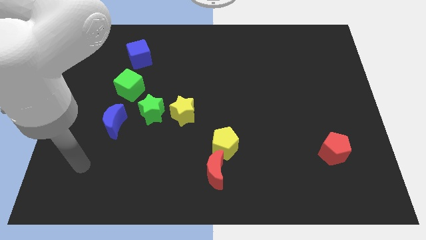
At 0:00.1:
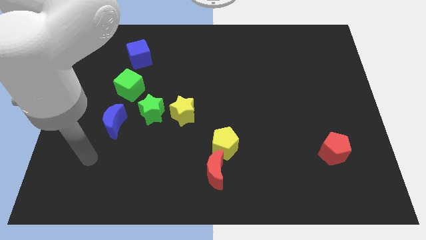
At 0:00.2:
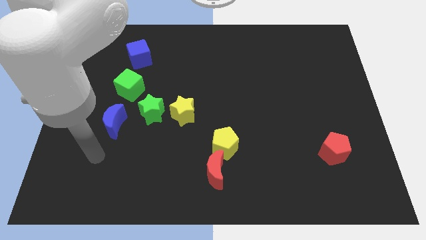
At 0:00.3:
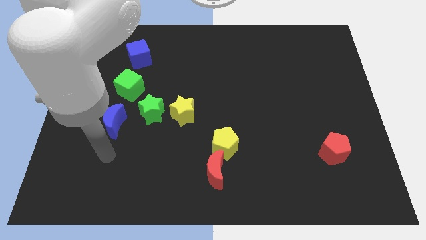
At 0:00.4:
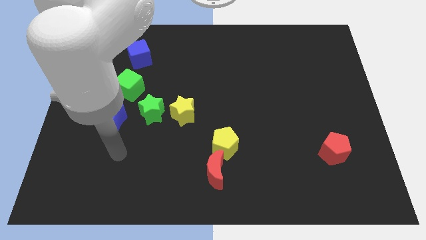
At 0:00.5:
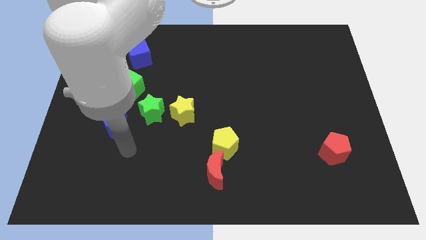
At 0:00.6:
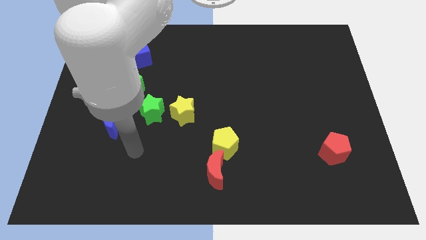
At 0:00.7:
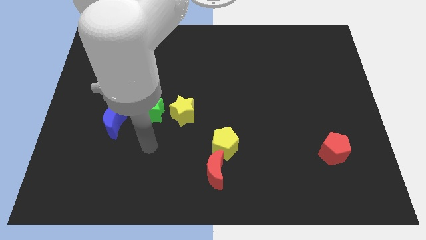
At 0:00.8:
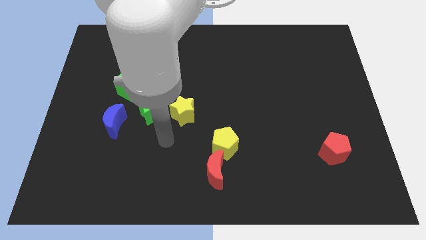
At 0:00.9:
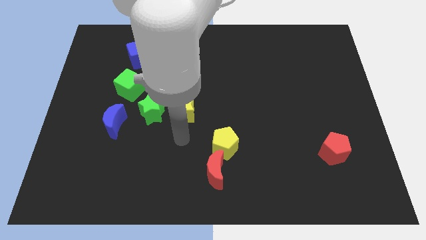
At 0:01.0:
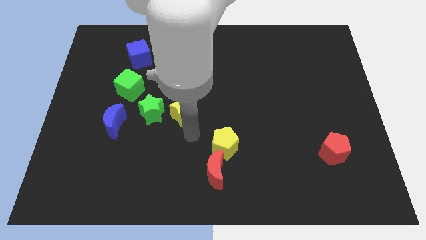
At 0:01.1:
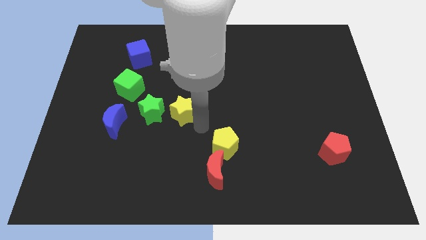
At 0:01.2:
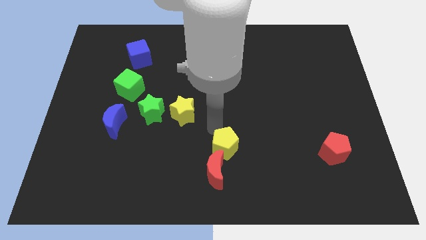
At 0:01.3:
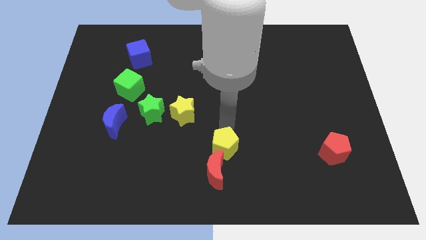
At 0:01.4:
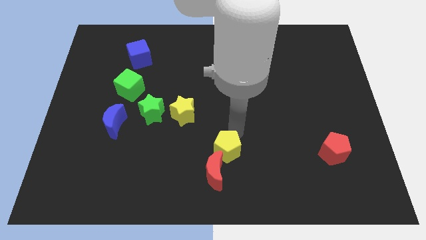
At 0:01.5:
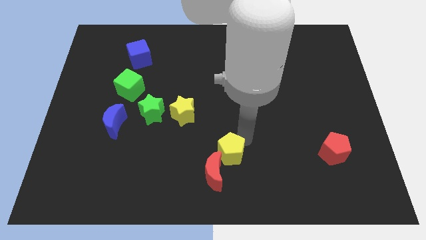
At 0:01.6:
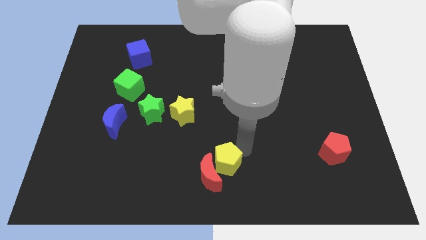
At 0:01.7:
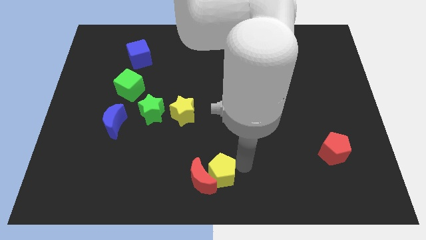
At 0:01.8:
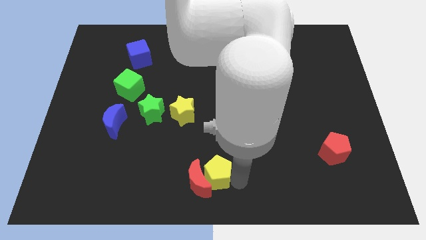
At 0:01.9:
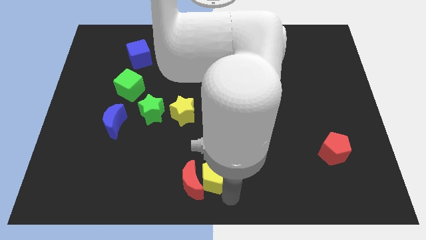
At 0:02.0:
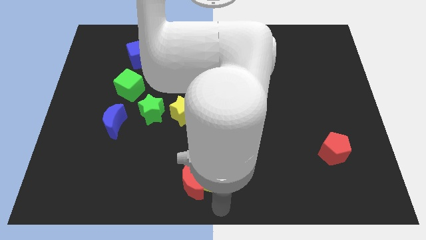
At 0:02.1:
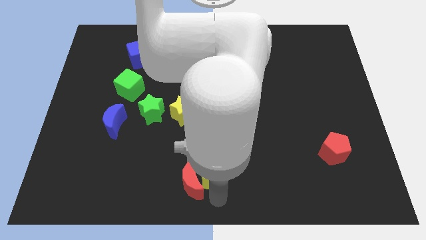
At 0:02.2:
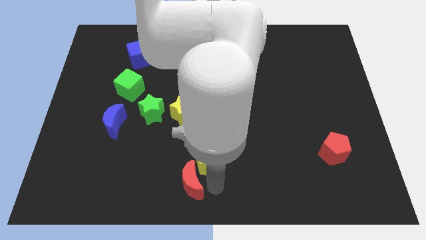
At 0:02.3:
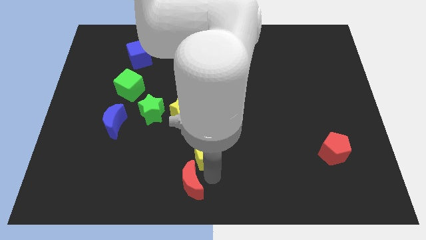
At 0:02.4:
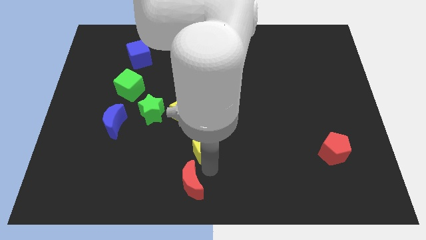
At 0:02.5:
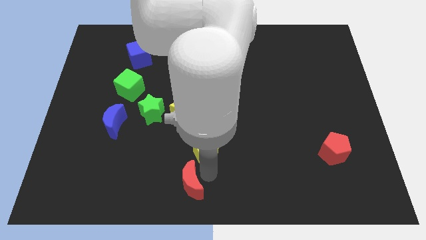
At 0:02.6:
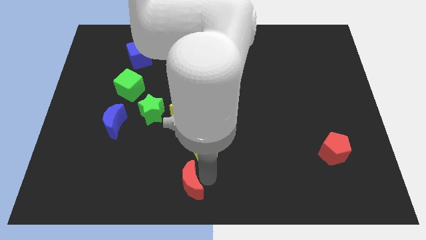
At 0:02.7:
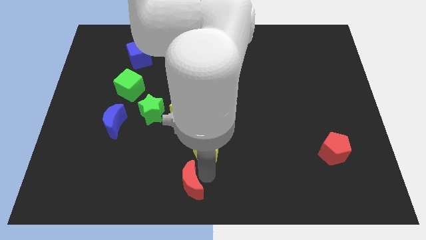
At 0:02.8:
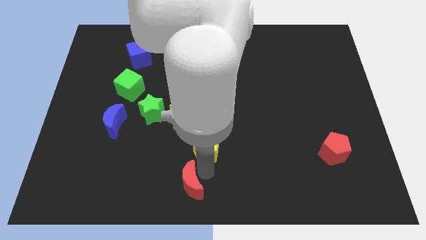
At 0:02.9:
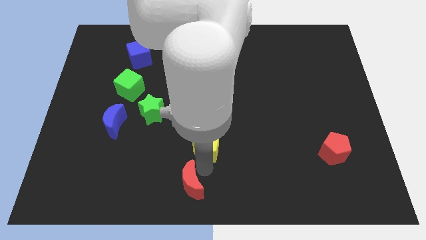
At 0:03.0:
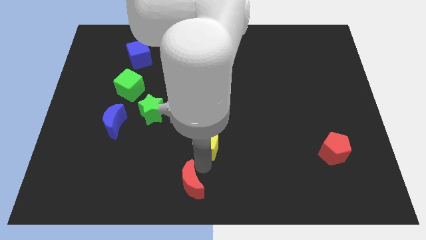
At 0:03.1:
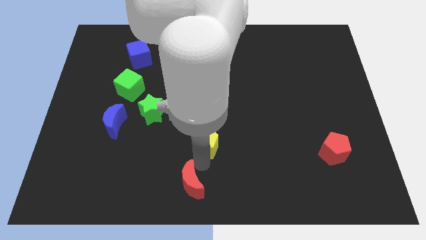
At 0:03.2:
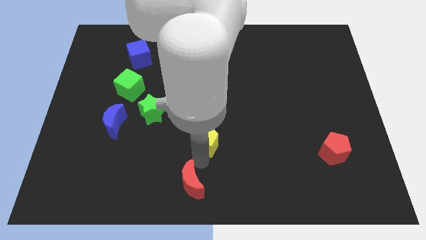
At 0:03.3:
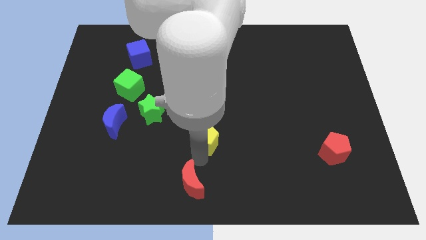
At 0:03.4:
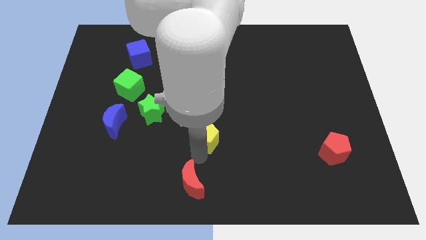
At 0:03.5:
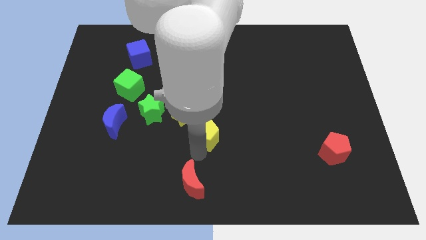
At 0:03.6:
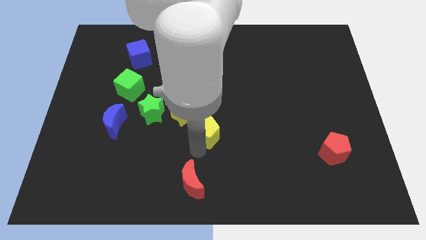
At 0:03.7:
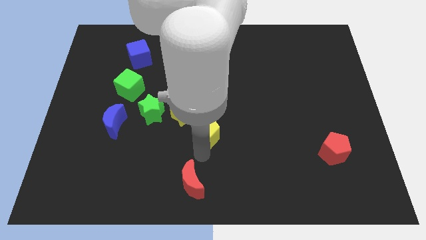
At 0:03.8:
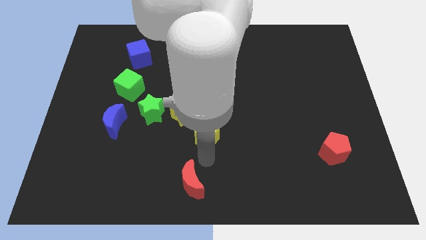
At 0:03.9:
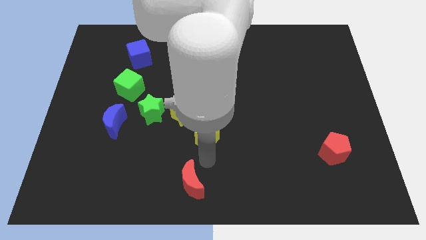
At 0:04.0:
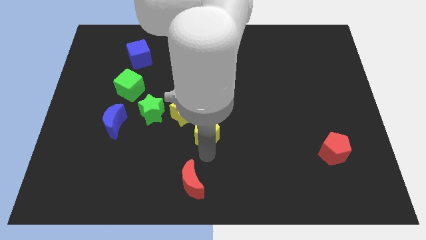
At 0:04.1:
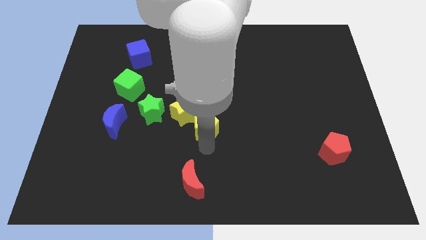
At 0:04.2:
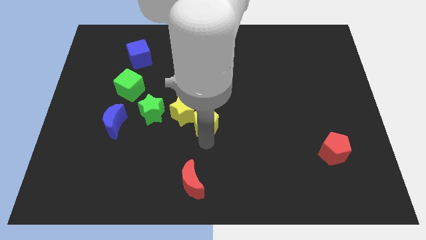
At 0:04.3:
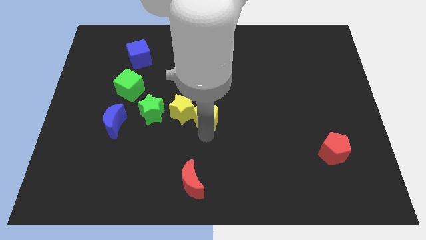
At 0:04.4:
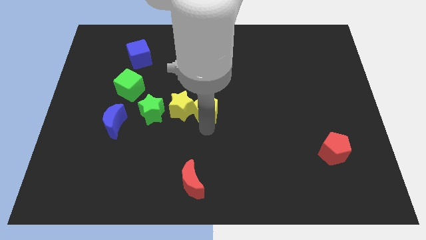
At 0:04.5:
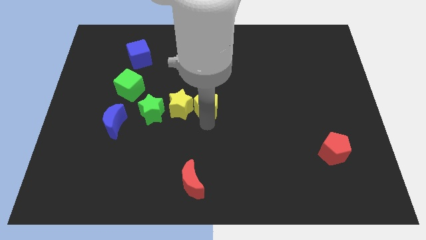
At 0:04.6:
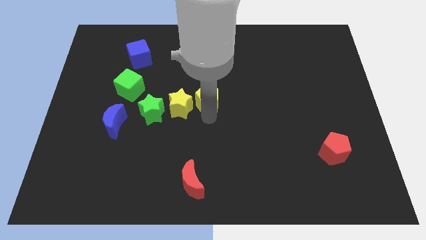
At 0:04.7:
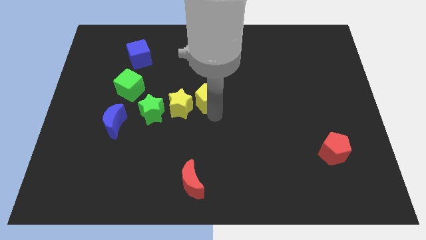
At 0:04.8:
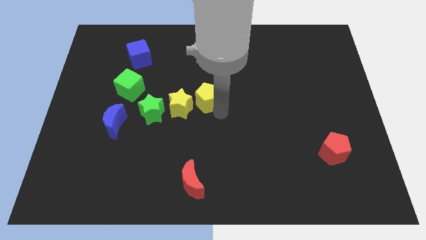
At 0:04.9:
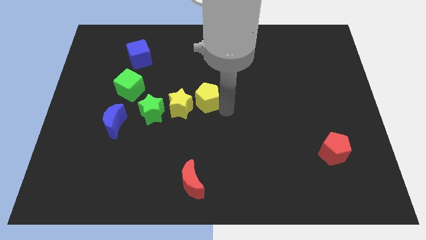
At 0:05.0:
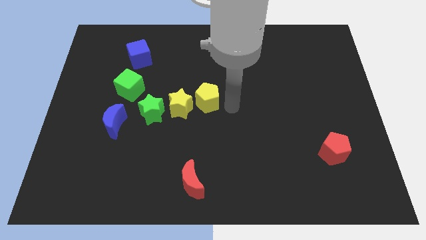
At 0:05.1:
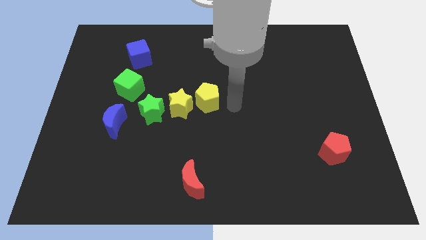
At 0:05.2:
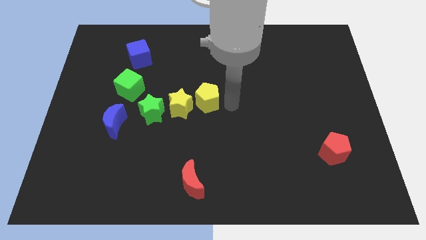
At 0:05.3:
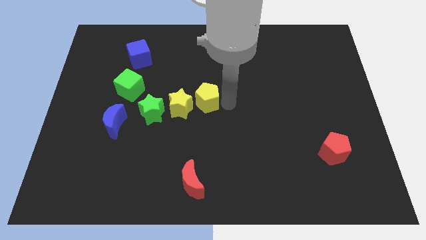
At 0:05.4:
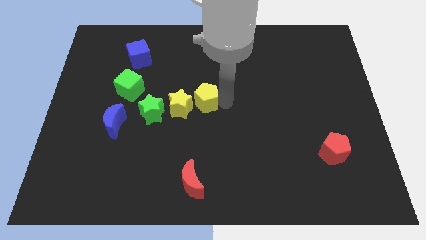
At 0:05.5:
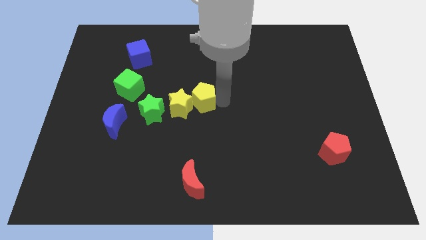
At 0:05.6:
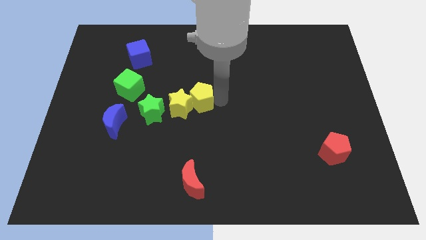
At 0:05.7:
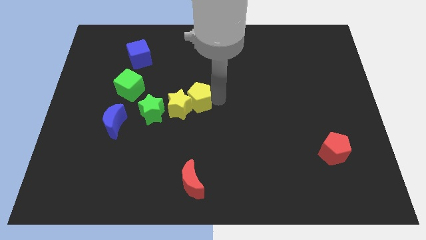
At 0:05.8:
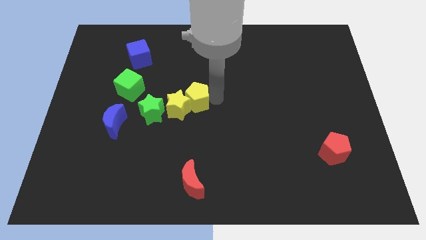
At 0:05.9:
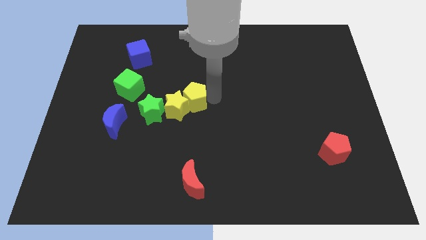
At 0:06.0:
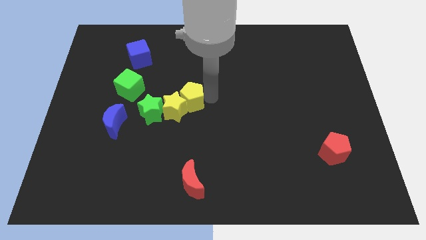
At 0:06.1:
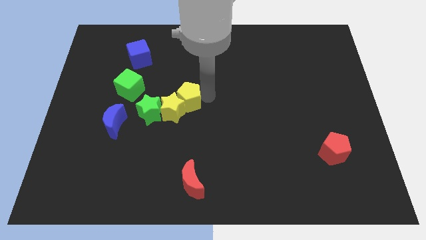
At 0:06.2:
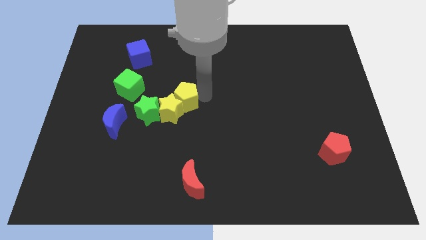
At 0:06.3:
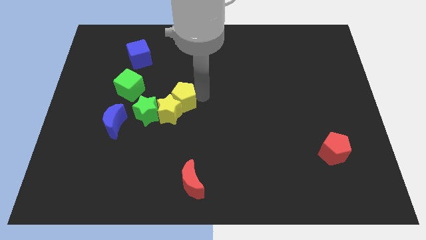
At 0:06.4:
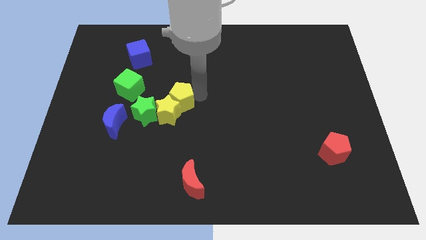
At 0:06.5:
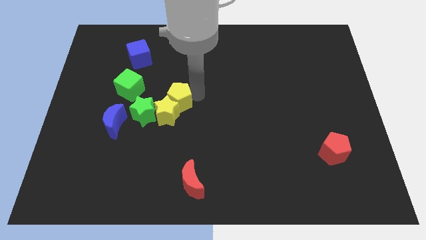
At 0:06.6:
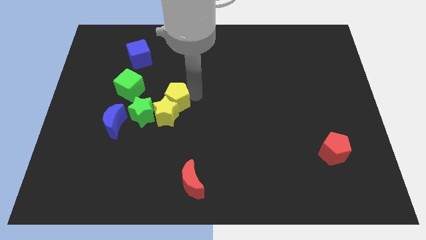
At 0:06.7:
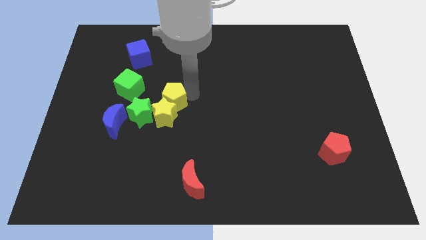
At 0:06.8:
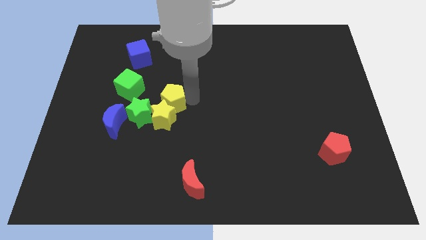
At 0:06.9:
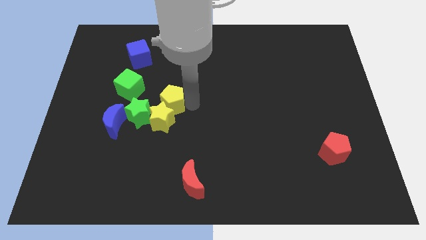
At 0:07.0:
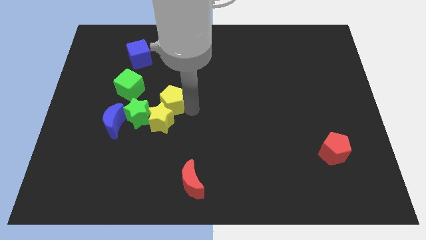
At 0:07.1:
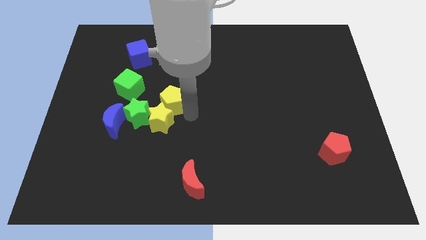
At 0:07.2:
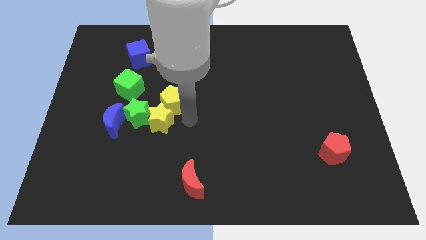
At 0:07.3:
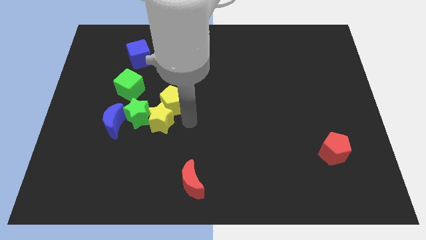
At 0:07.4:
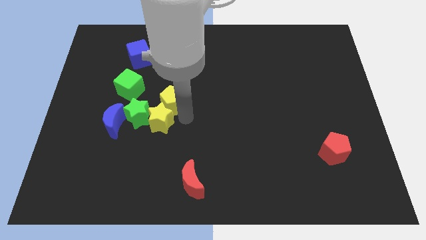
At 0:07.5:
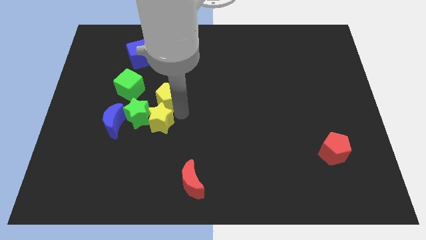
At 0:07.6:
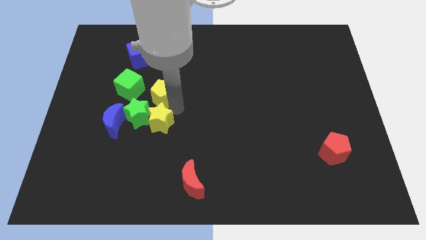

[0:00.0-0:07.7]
move the yellow pentagon up and then left
